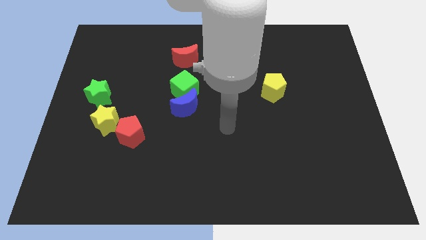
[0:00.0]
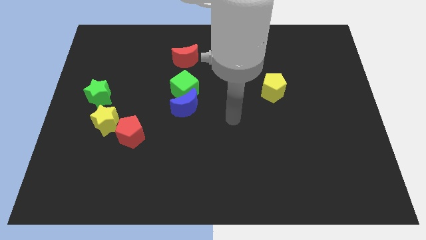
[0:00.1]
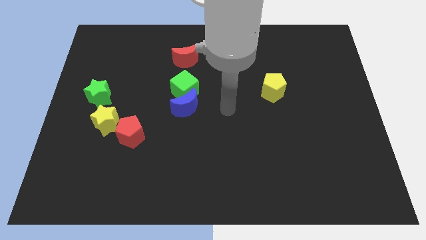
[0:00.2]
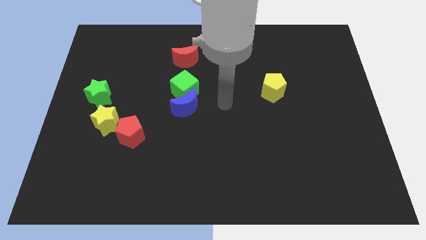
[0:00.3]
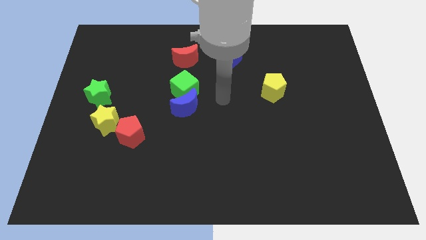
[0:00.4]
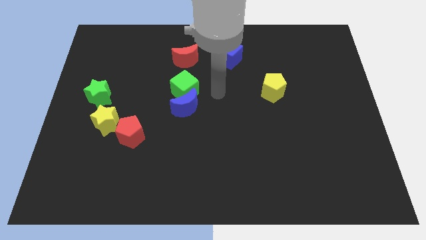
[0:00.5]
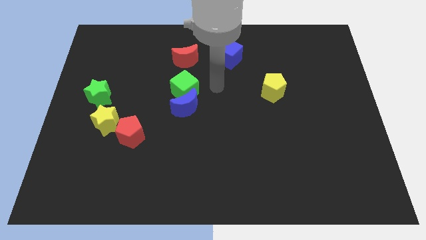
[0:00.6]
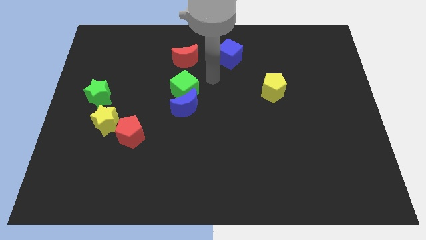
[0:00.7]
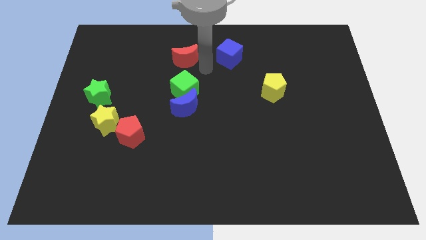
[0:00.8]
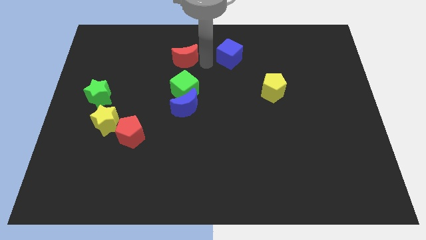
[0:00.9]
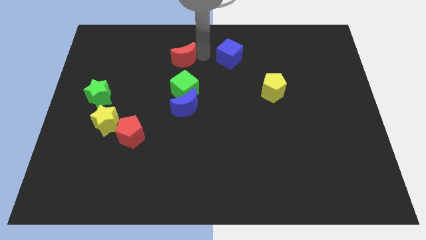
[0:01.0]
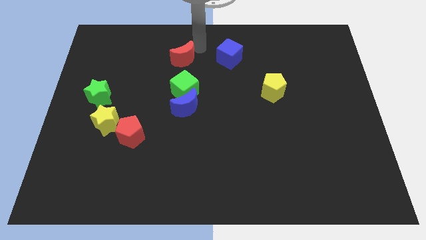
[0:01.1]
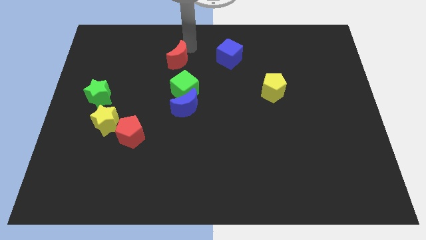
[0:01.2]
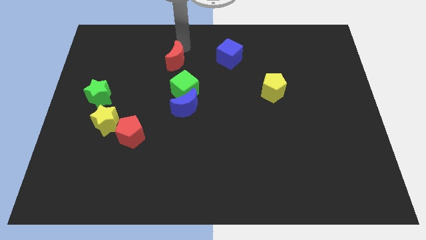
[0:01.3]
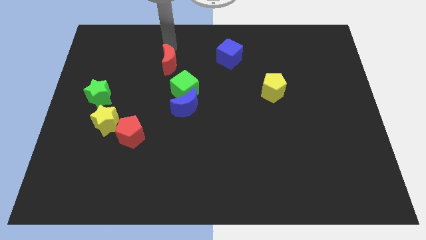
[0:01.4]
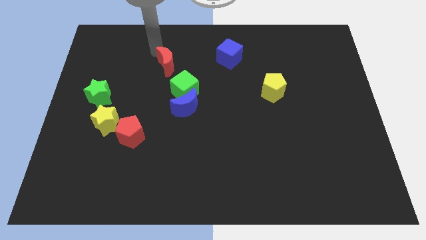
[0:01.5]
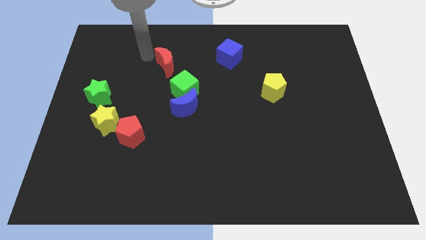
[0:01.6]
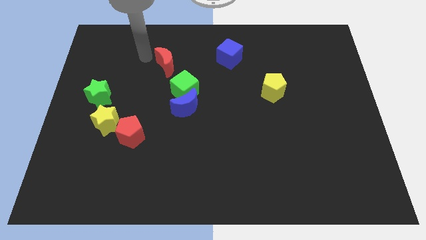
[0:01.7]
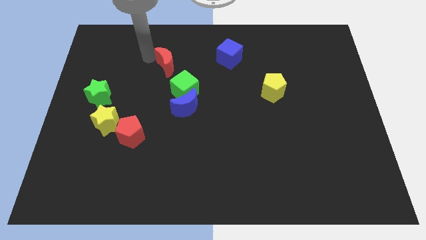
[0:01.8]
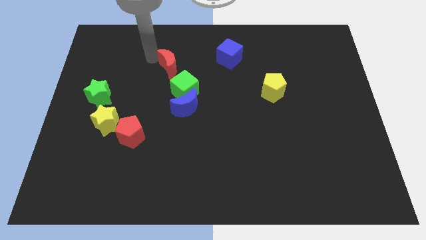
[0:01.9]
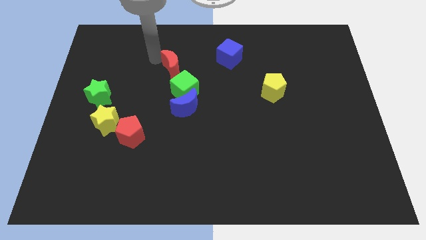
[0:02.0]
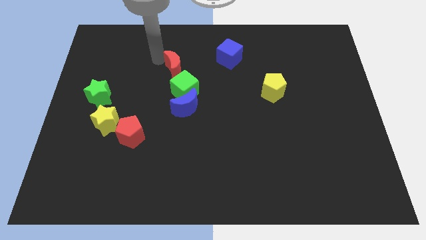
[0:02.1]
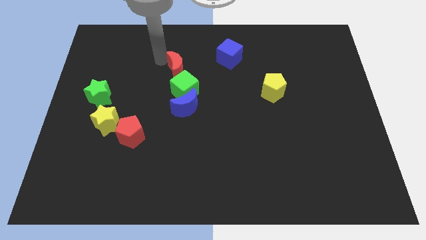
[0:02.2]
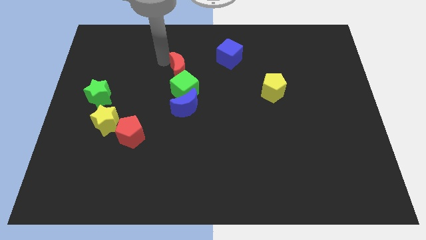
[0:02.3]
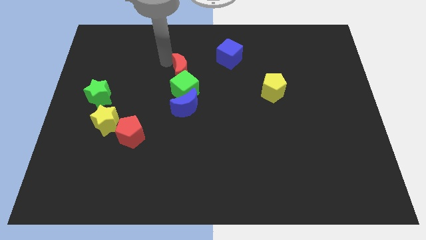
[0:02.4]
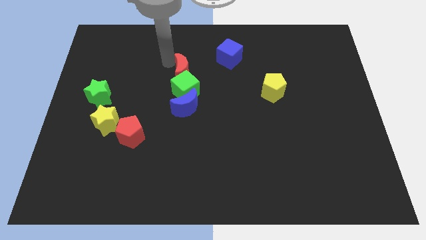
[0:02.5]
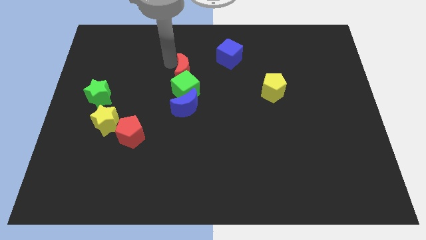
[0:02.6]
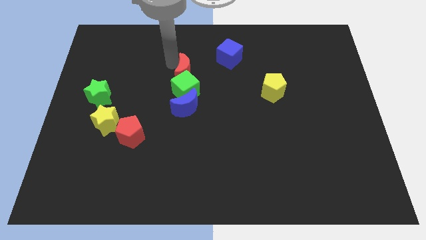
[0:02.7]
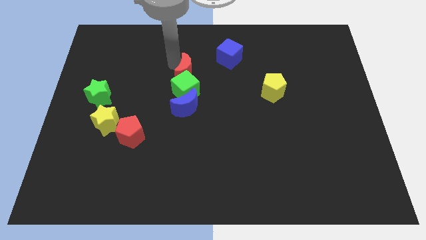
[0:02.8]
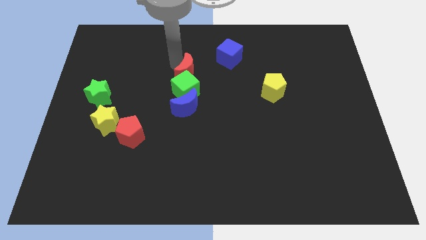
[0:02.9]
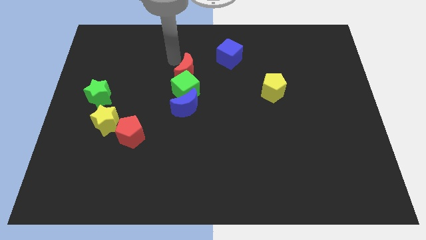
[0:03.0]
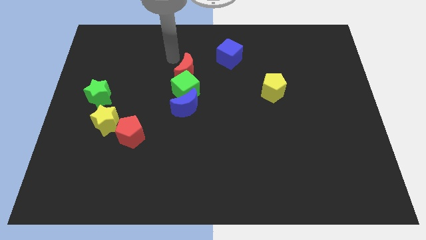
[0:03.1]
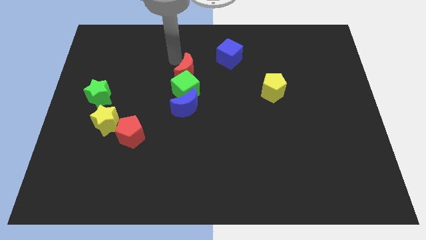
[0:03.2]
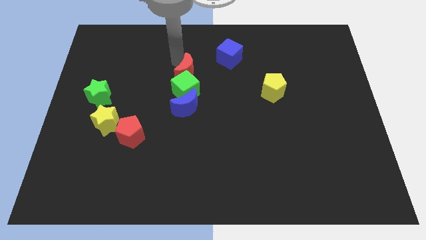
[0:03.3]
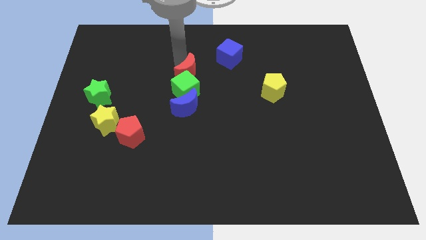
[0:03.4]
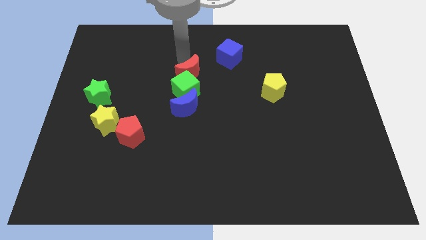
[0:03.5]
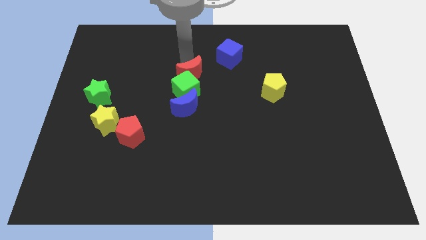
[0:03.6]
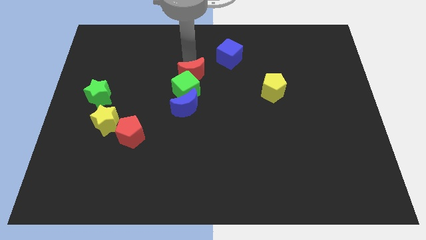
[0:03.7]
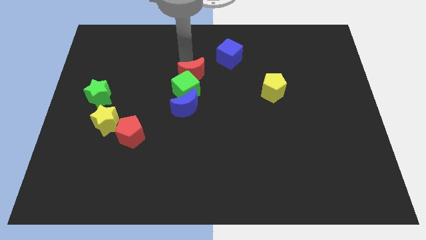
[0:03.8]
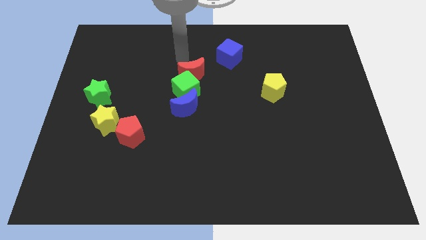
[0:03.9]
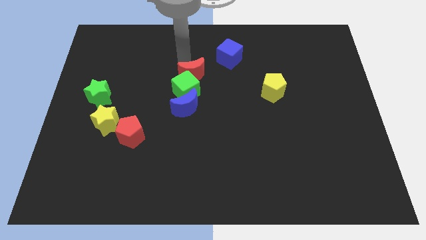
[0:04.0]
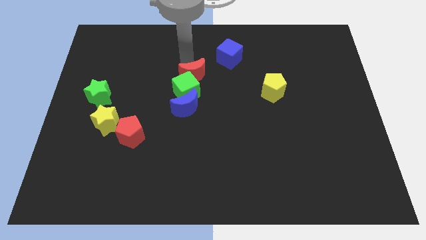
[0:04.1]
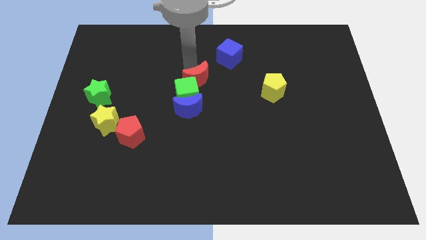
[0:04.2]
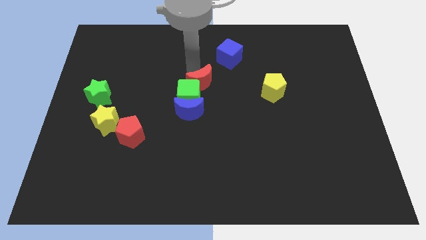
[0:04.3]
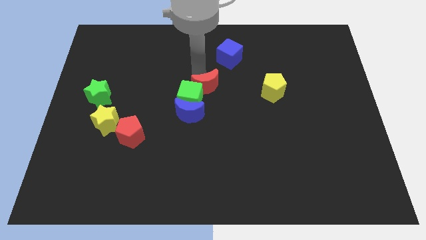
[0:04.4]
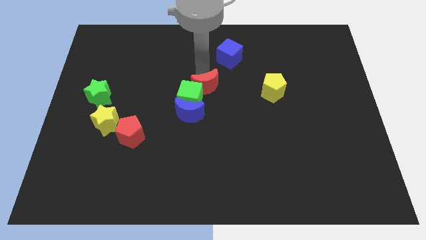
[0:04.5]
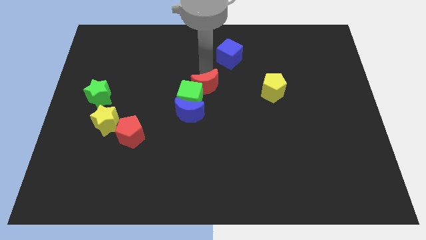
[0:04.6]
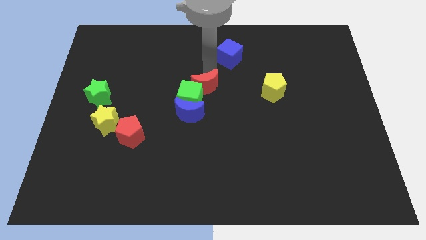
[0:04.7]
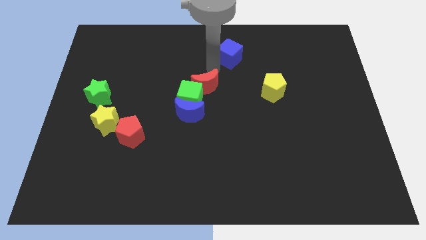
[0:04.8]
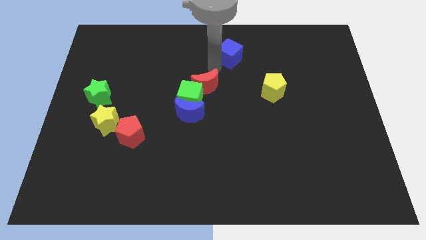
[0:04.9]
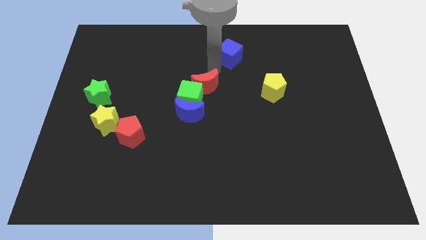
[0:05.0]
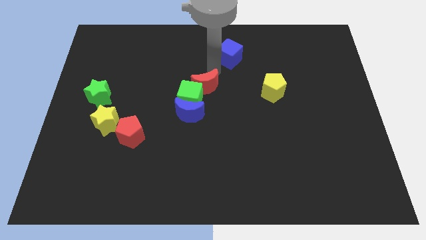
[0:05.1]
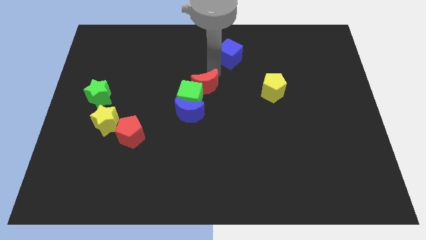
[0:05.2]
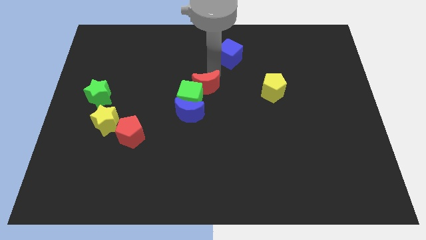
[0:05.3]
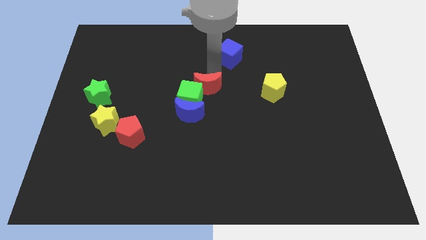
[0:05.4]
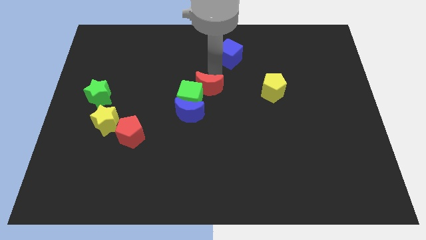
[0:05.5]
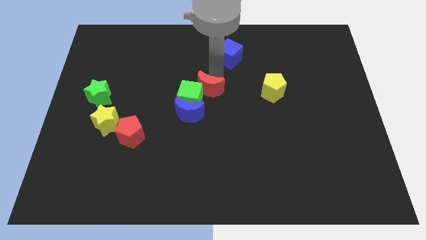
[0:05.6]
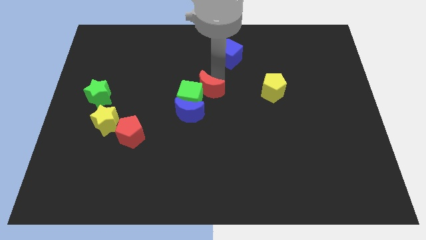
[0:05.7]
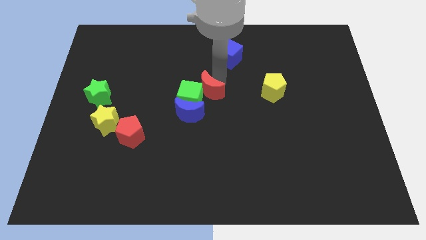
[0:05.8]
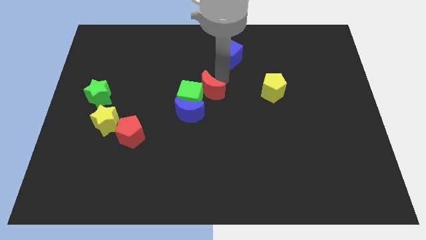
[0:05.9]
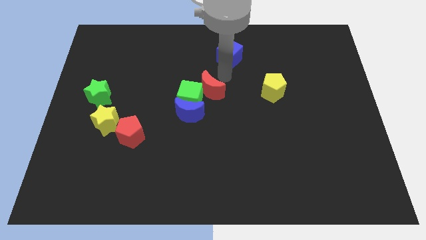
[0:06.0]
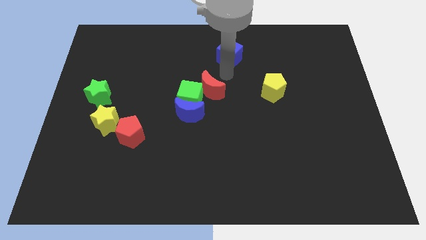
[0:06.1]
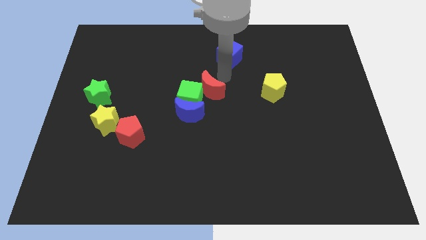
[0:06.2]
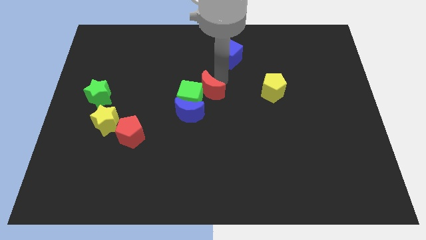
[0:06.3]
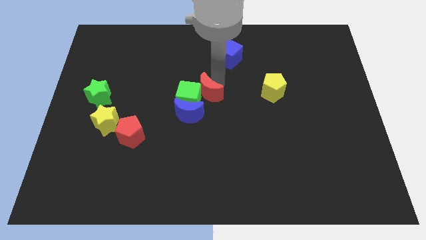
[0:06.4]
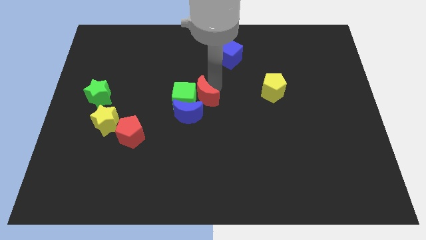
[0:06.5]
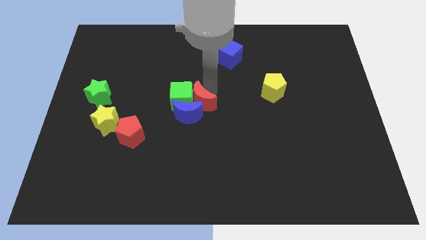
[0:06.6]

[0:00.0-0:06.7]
put the red moon towards the blue moon

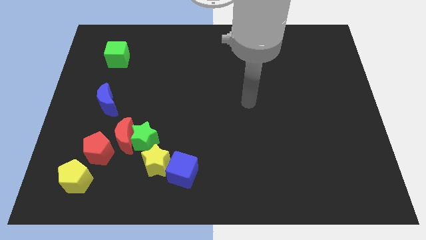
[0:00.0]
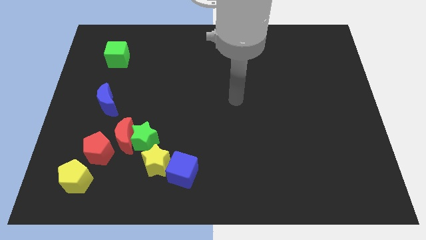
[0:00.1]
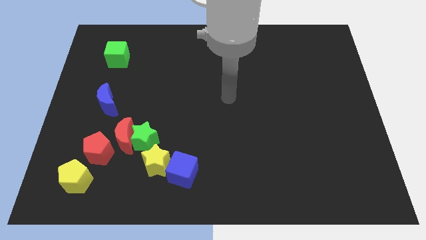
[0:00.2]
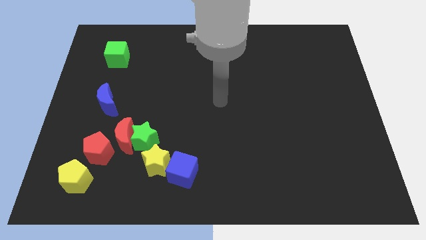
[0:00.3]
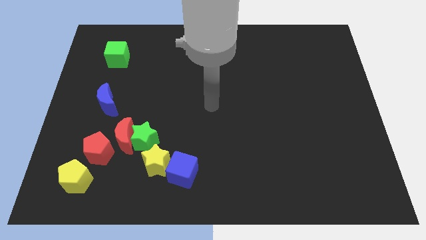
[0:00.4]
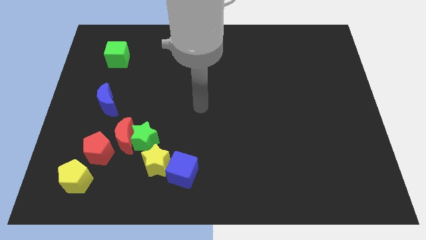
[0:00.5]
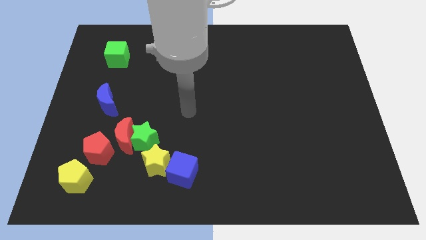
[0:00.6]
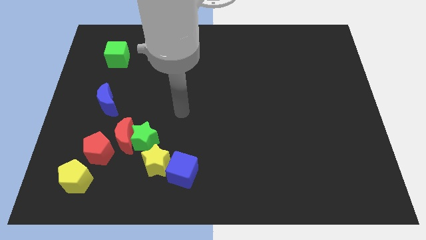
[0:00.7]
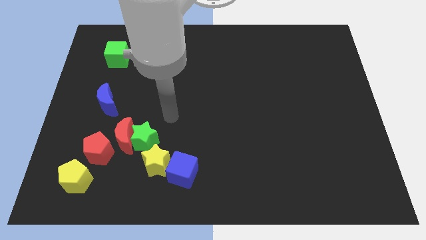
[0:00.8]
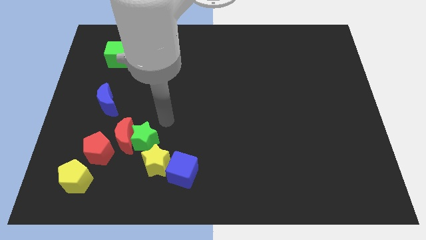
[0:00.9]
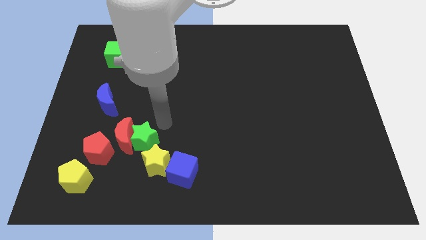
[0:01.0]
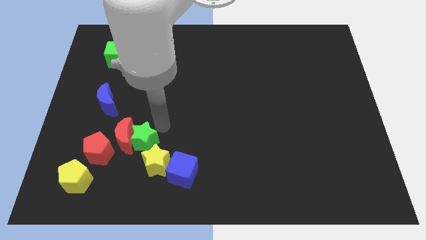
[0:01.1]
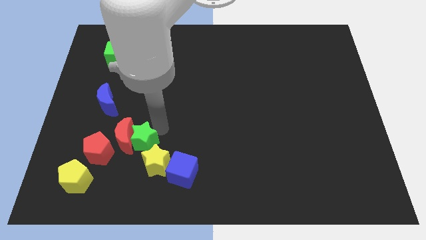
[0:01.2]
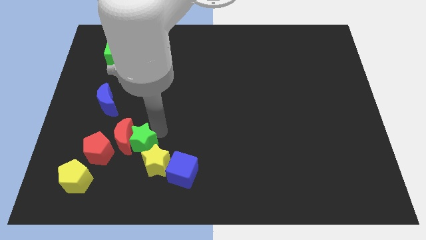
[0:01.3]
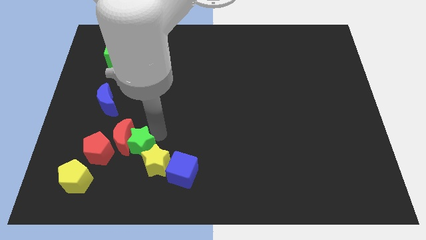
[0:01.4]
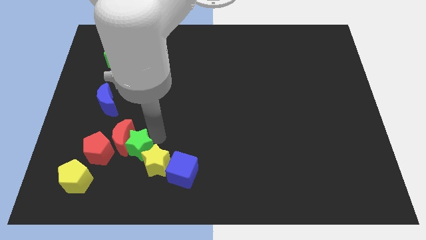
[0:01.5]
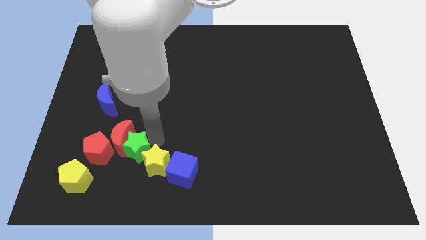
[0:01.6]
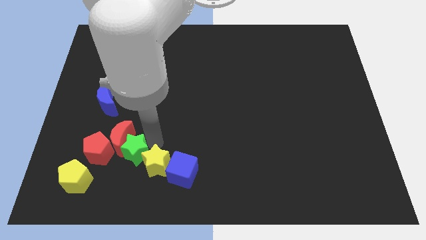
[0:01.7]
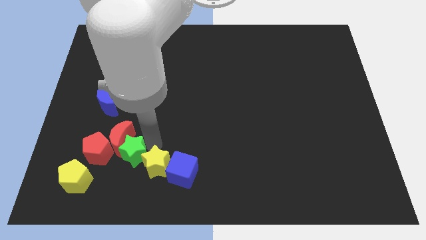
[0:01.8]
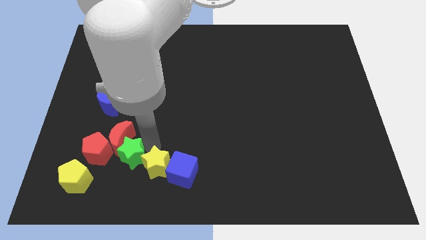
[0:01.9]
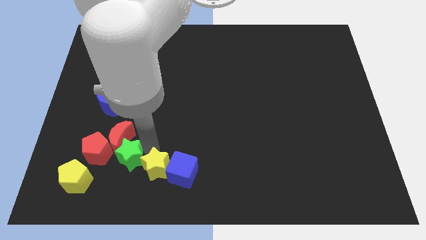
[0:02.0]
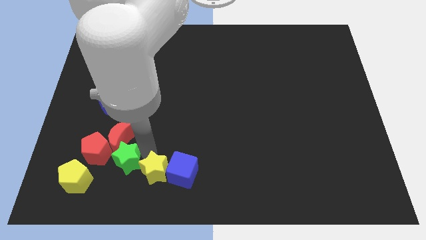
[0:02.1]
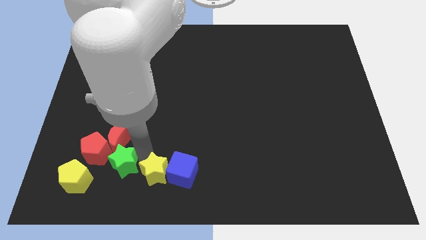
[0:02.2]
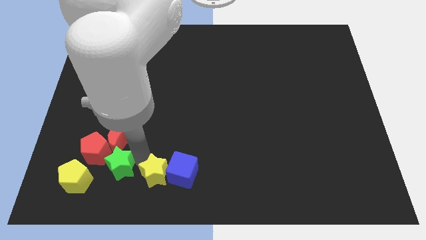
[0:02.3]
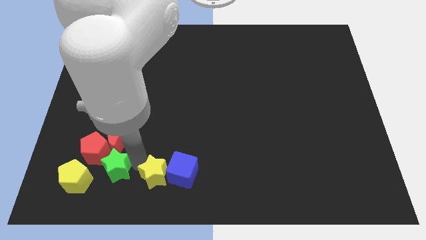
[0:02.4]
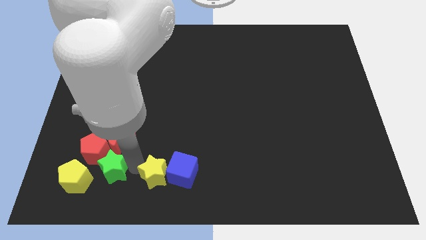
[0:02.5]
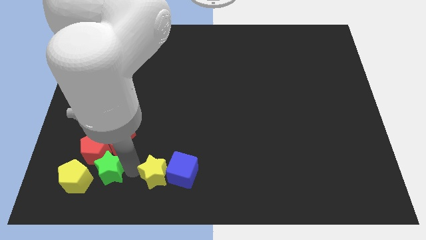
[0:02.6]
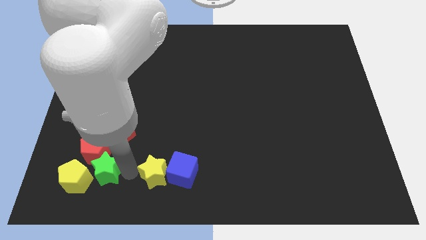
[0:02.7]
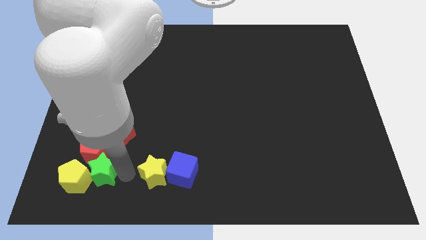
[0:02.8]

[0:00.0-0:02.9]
put the green star next to the yellow pentagon
